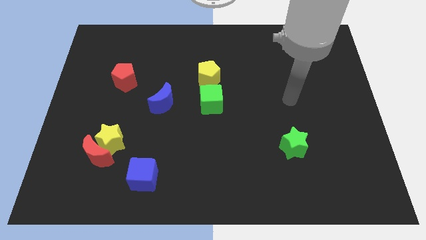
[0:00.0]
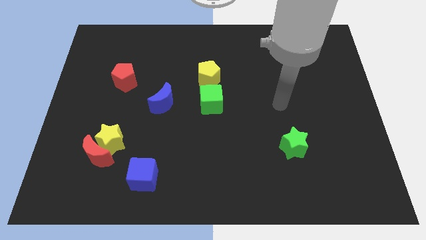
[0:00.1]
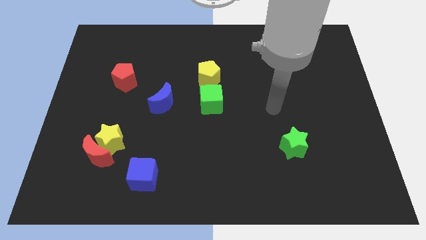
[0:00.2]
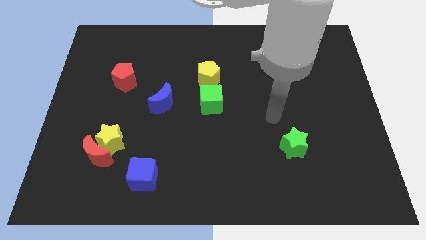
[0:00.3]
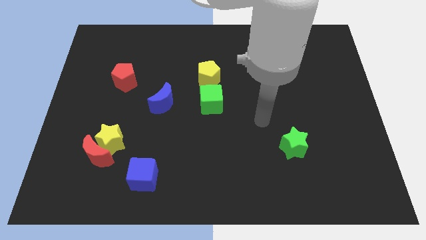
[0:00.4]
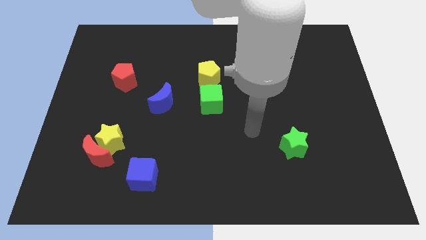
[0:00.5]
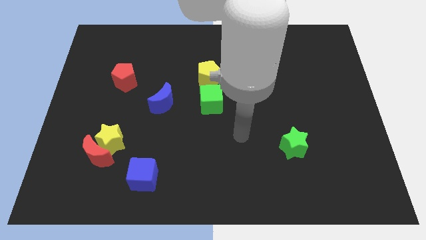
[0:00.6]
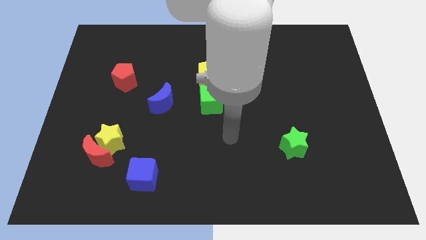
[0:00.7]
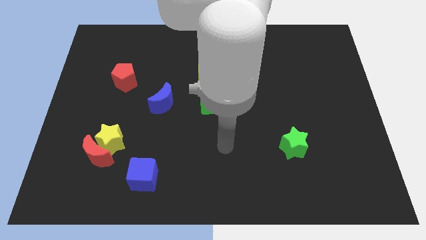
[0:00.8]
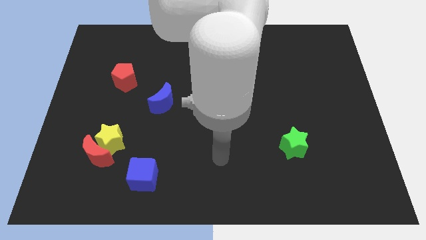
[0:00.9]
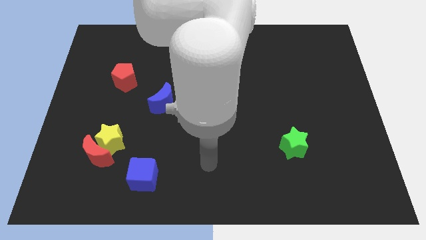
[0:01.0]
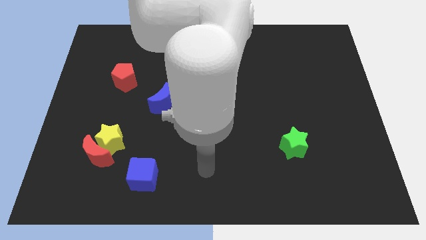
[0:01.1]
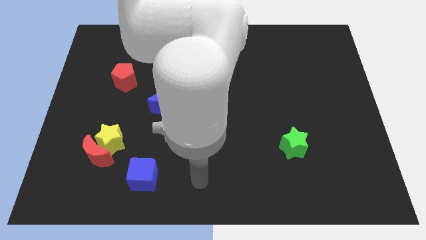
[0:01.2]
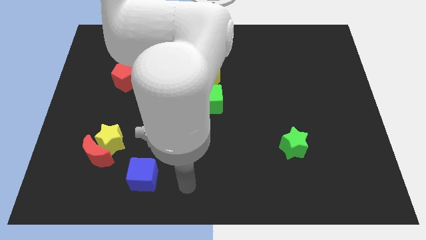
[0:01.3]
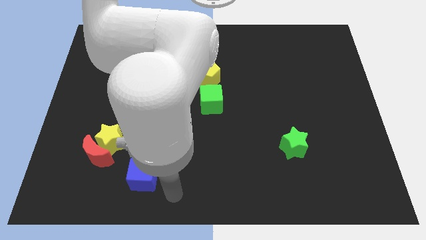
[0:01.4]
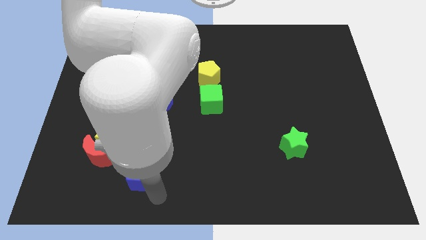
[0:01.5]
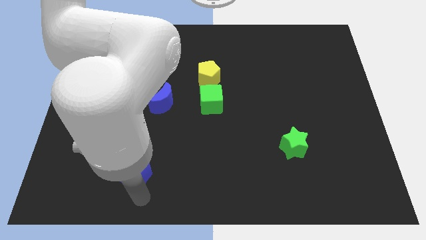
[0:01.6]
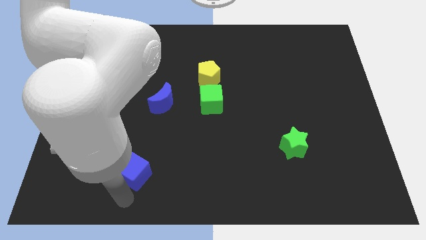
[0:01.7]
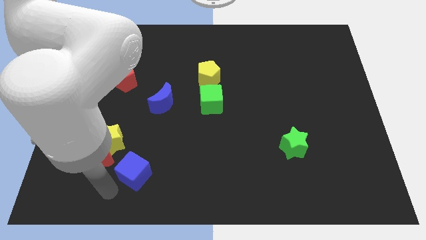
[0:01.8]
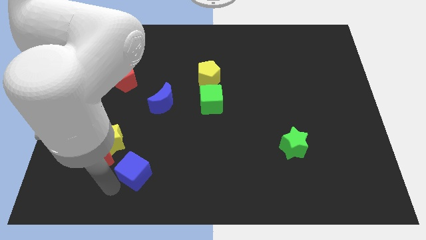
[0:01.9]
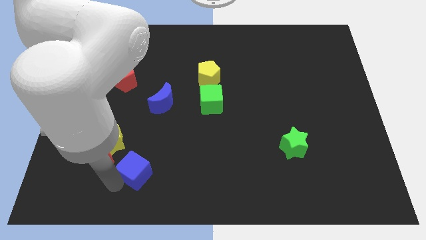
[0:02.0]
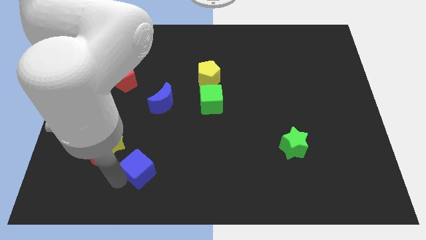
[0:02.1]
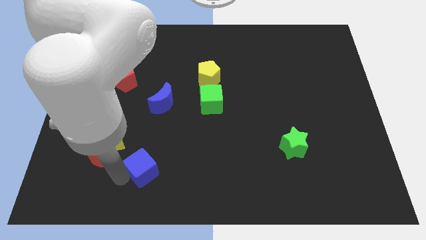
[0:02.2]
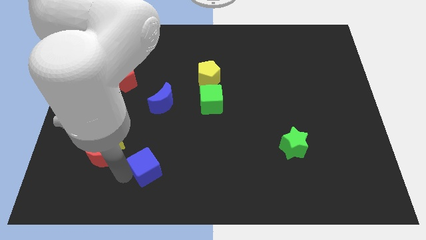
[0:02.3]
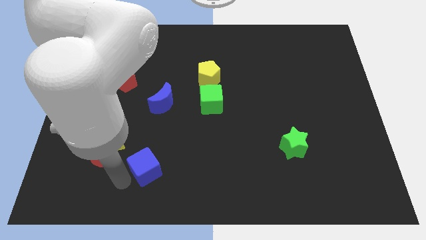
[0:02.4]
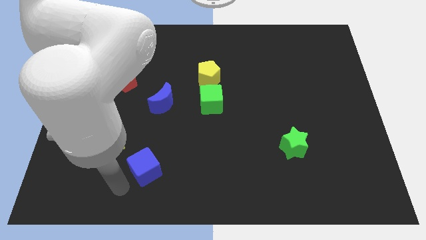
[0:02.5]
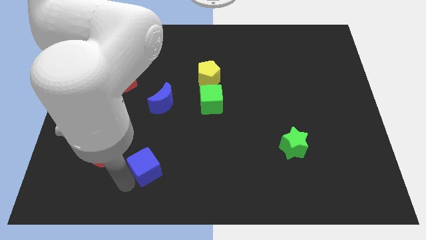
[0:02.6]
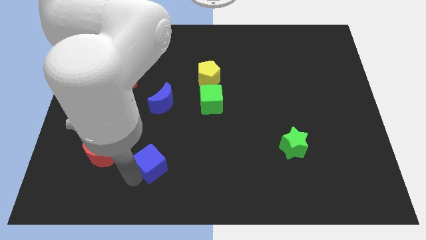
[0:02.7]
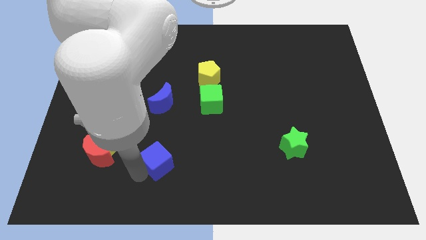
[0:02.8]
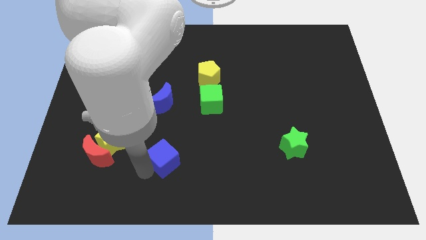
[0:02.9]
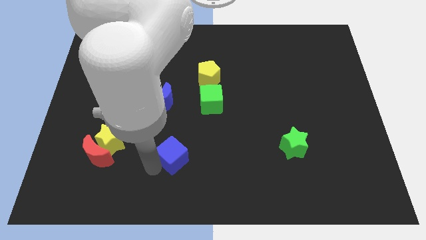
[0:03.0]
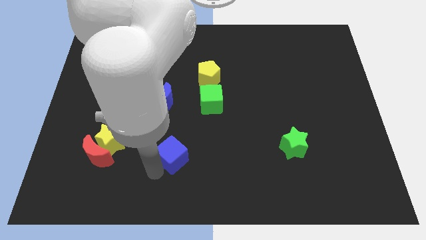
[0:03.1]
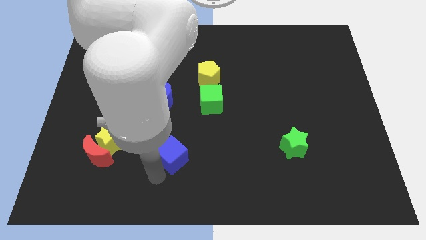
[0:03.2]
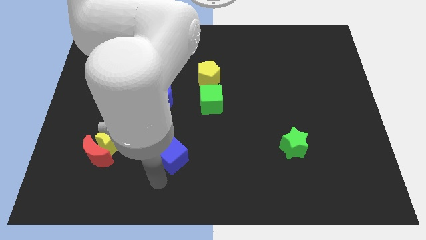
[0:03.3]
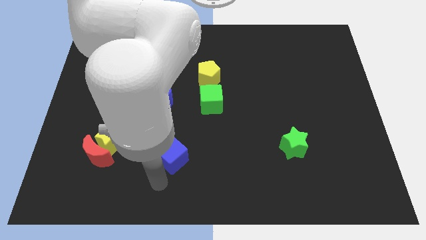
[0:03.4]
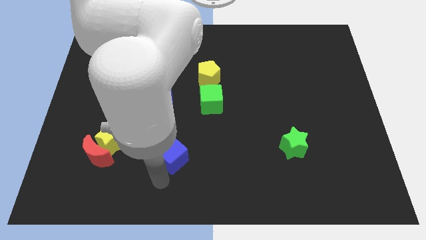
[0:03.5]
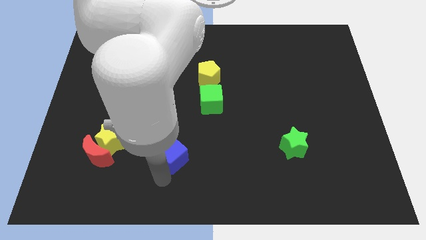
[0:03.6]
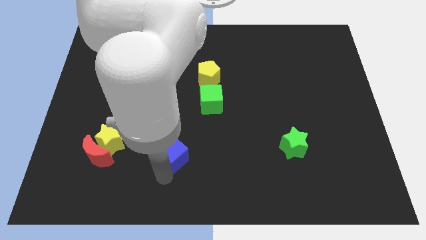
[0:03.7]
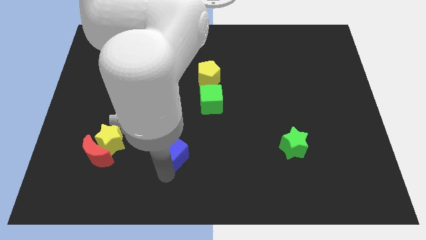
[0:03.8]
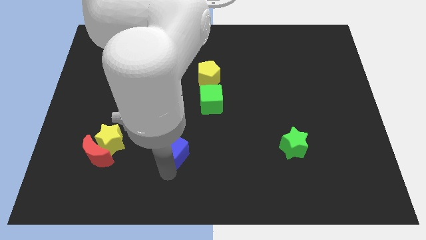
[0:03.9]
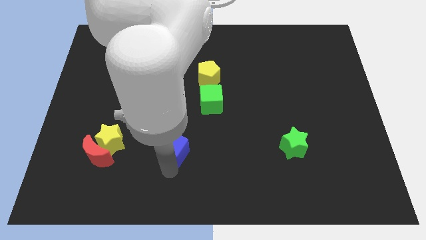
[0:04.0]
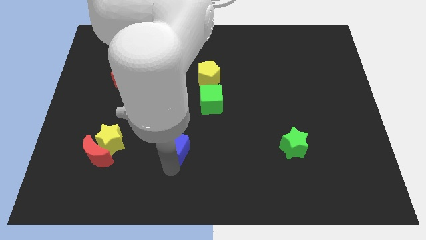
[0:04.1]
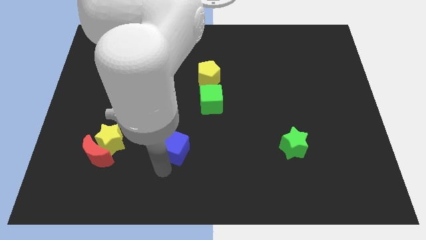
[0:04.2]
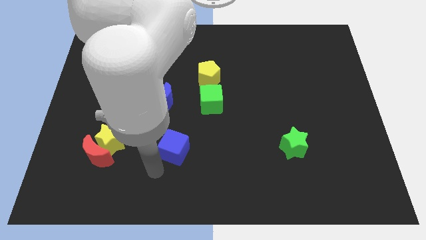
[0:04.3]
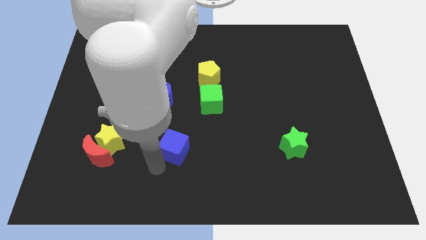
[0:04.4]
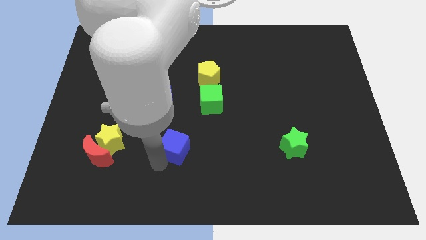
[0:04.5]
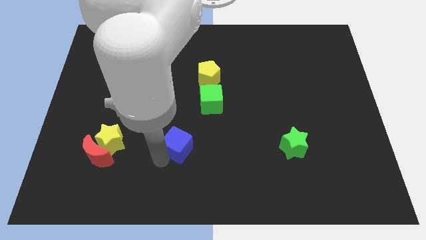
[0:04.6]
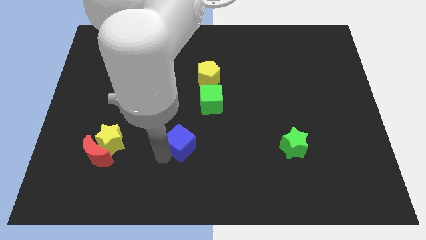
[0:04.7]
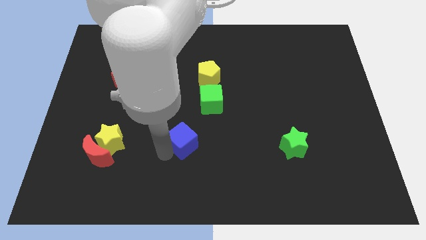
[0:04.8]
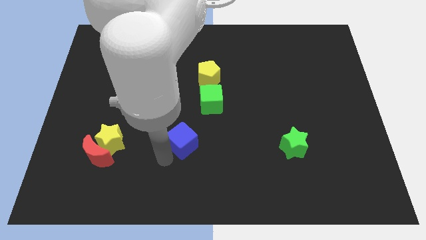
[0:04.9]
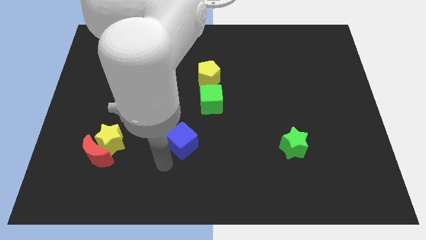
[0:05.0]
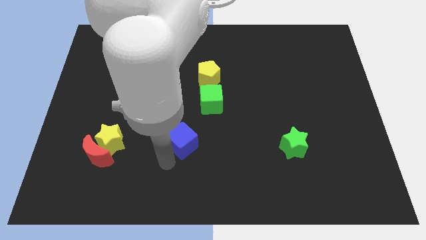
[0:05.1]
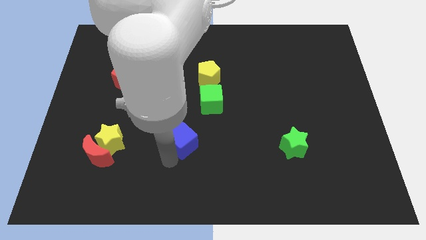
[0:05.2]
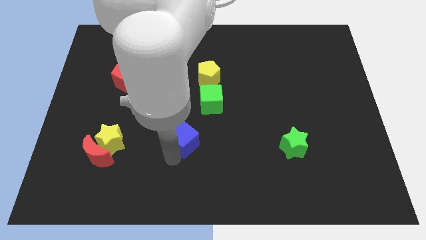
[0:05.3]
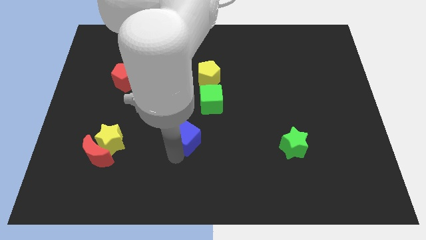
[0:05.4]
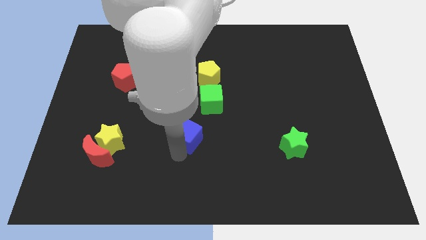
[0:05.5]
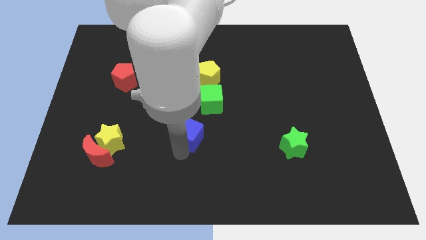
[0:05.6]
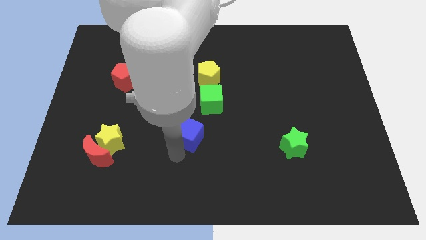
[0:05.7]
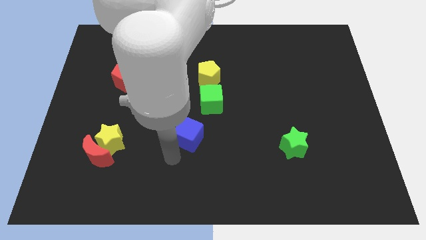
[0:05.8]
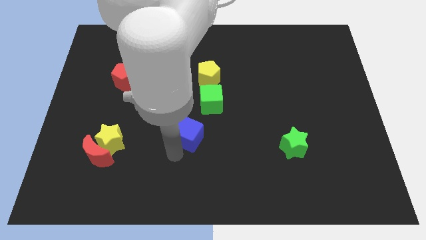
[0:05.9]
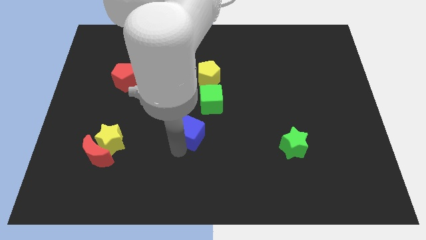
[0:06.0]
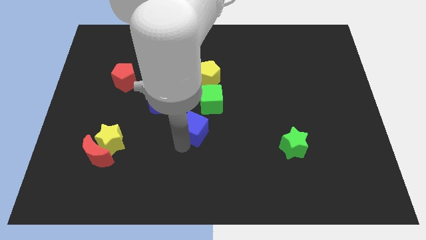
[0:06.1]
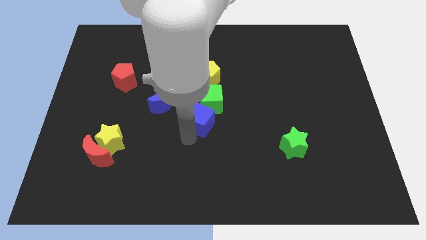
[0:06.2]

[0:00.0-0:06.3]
slide the blue cube next to the green cube

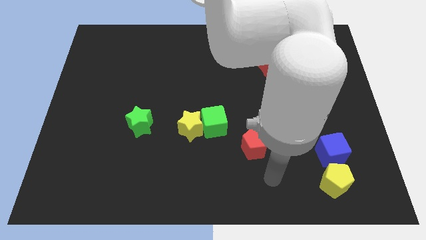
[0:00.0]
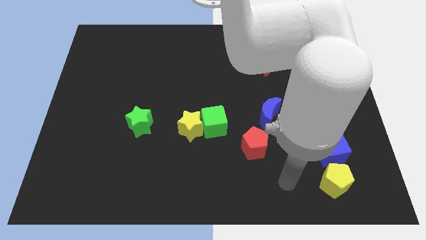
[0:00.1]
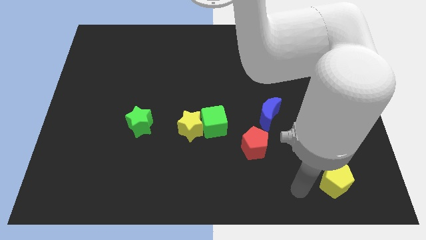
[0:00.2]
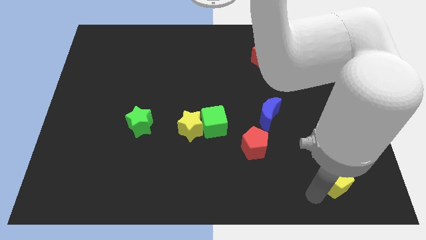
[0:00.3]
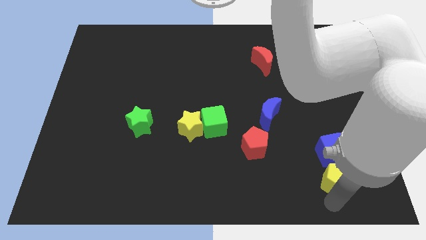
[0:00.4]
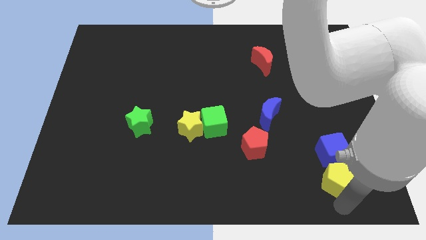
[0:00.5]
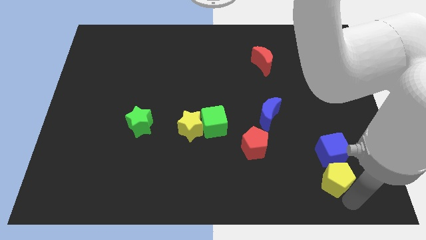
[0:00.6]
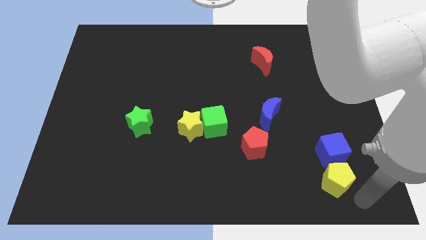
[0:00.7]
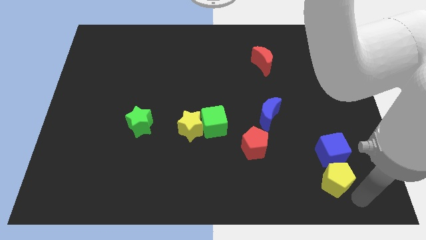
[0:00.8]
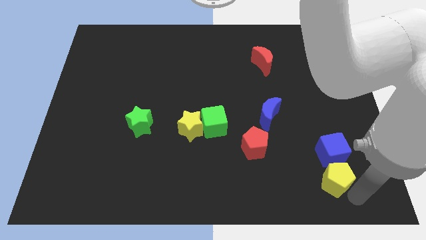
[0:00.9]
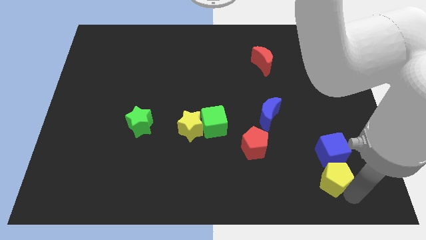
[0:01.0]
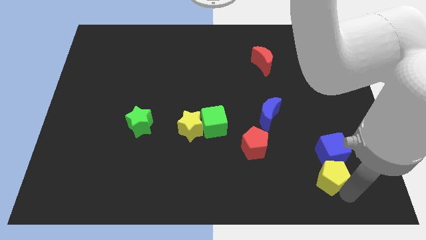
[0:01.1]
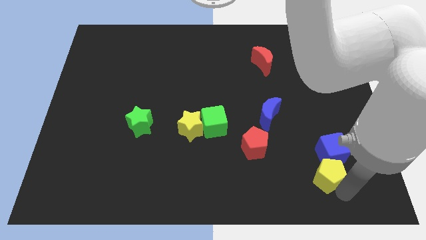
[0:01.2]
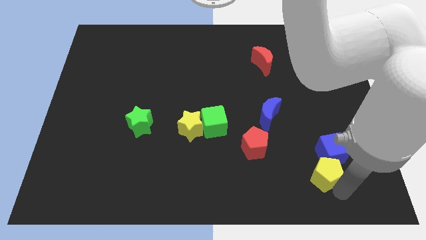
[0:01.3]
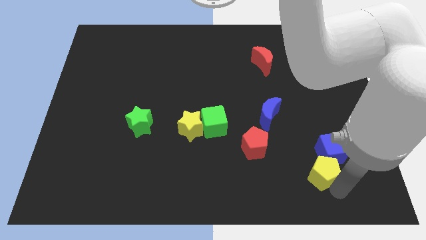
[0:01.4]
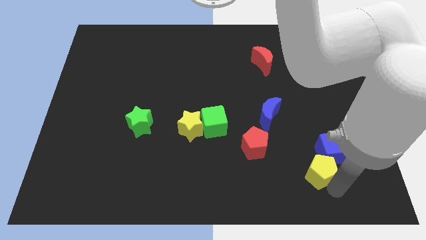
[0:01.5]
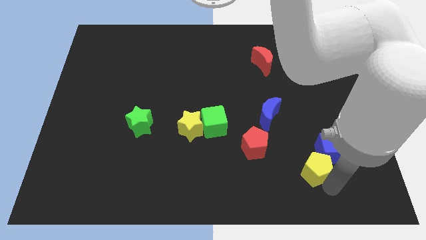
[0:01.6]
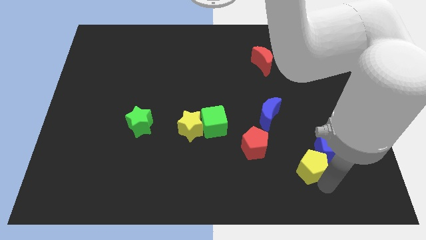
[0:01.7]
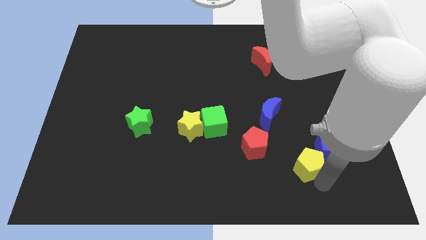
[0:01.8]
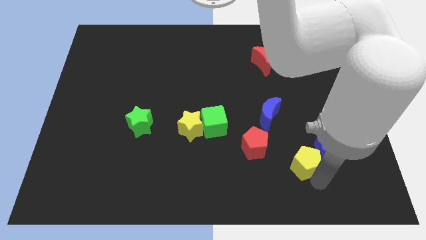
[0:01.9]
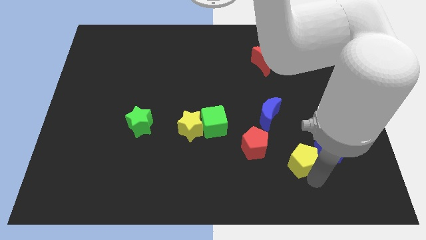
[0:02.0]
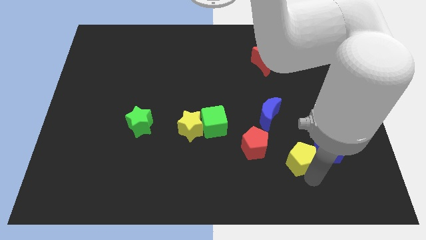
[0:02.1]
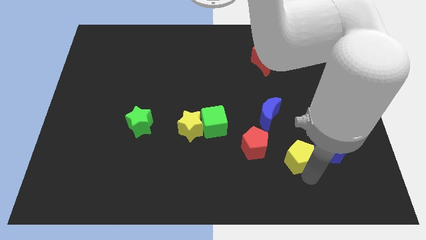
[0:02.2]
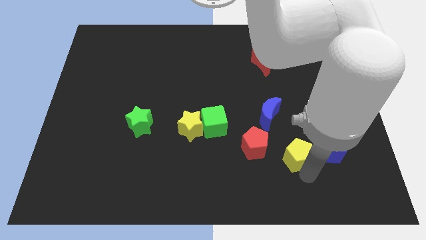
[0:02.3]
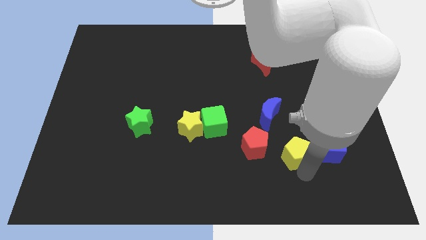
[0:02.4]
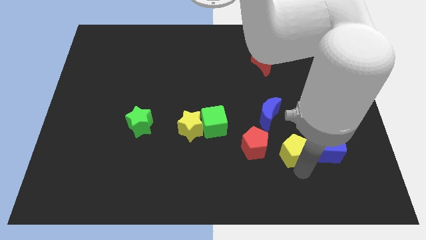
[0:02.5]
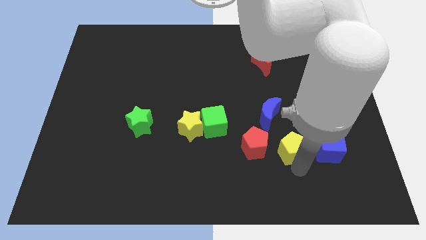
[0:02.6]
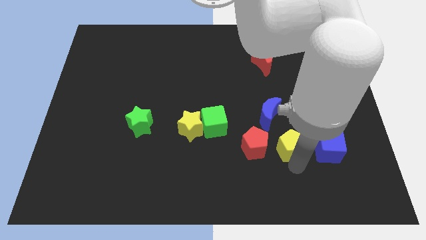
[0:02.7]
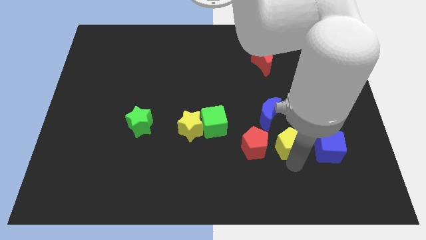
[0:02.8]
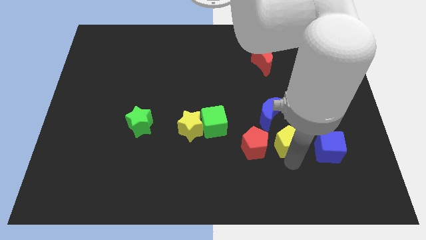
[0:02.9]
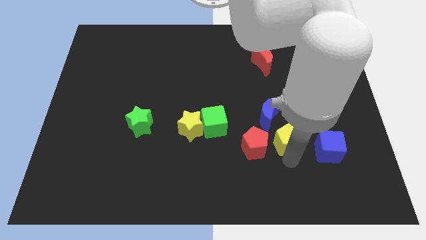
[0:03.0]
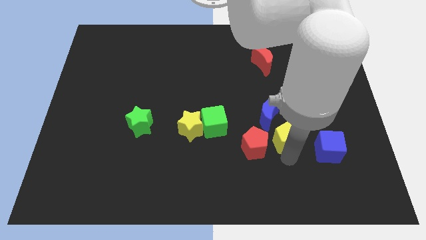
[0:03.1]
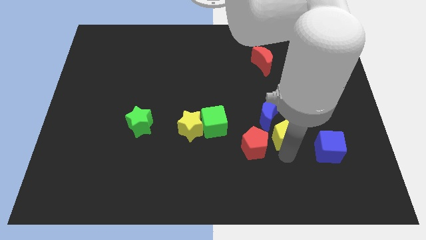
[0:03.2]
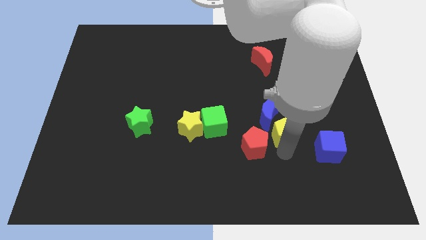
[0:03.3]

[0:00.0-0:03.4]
move the yellow pentagon towards the blue moon
